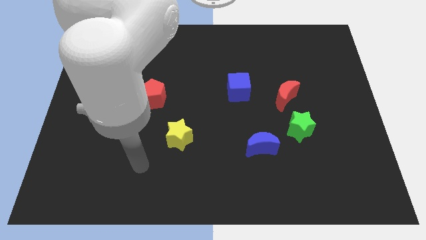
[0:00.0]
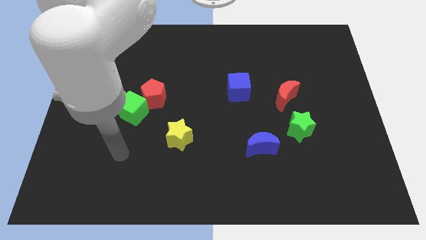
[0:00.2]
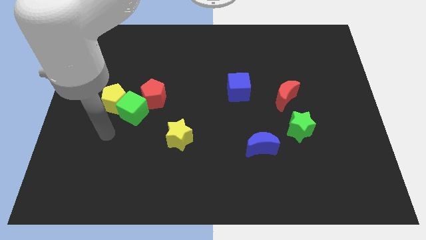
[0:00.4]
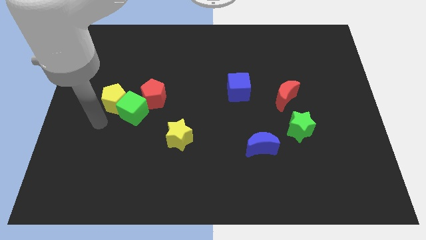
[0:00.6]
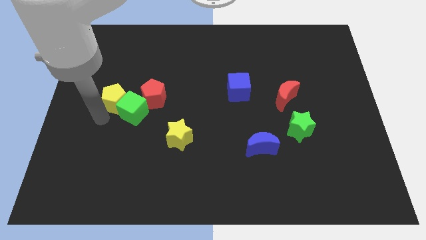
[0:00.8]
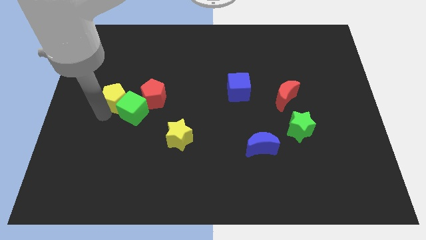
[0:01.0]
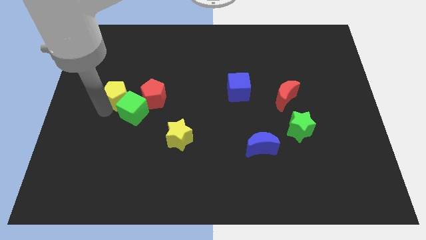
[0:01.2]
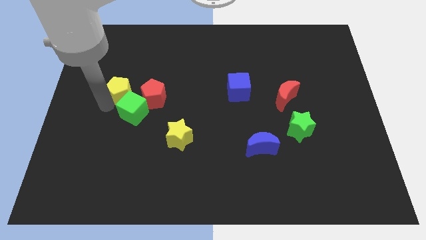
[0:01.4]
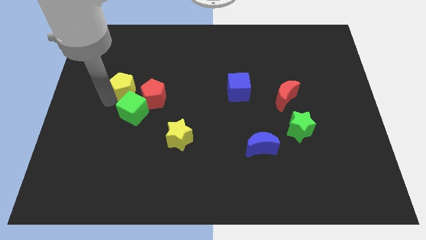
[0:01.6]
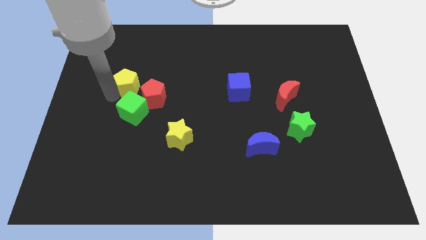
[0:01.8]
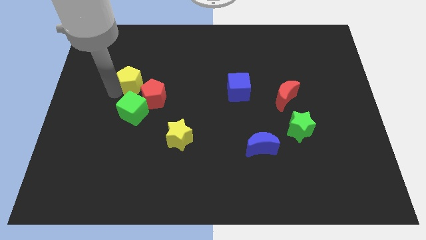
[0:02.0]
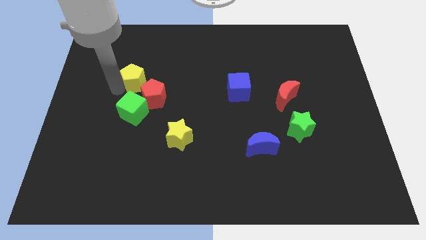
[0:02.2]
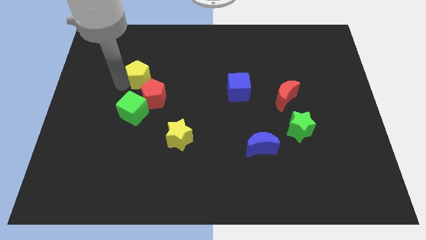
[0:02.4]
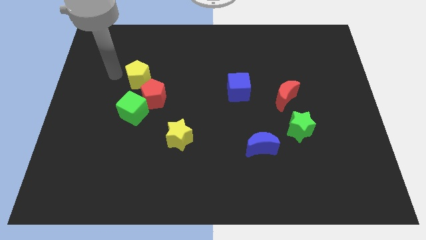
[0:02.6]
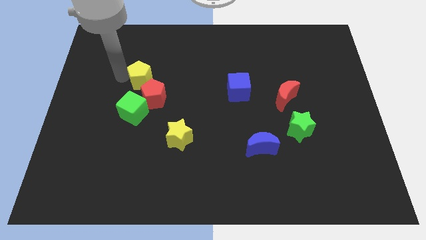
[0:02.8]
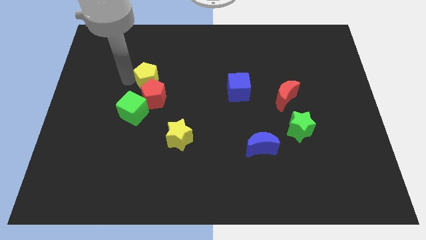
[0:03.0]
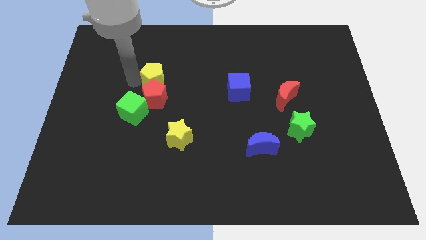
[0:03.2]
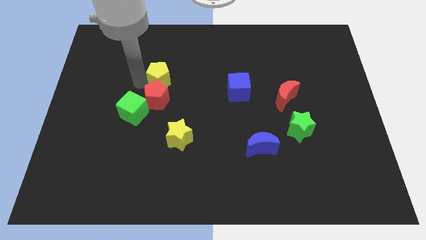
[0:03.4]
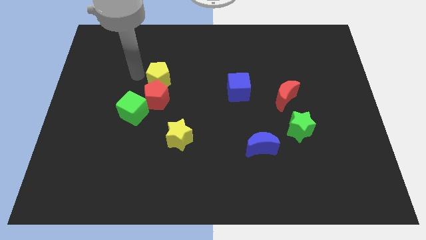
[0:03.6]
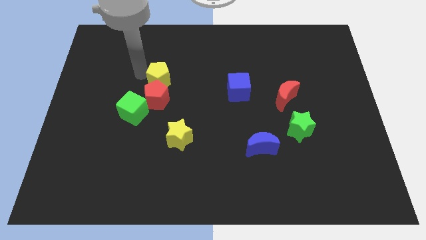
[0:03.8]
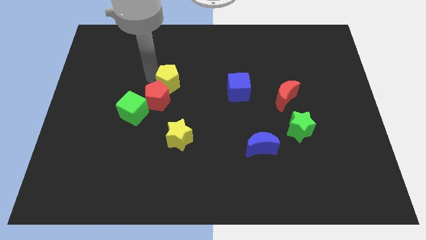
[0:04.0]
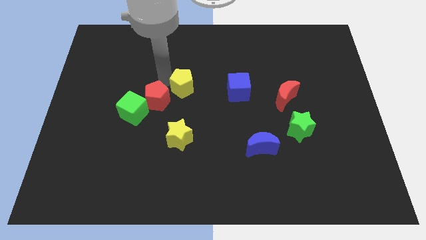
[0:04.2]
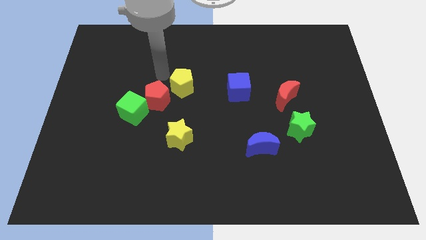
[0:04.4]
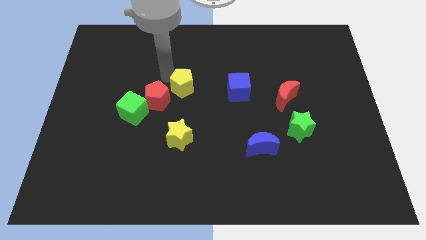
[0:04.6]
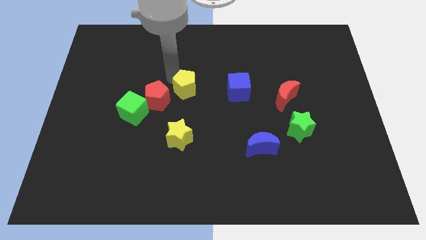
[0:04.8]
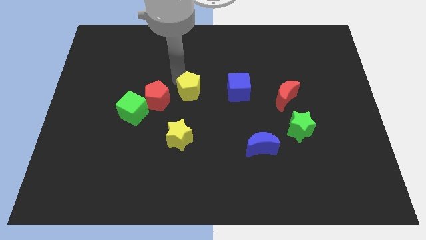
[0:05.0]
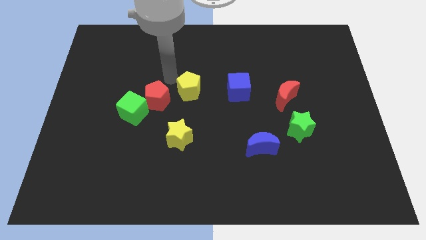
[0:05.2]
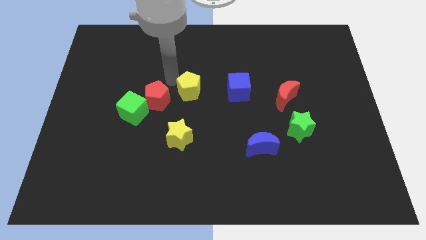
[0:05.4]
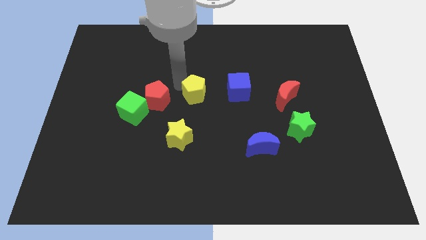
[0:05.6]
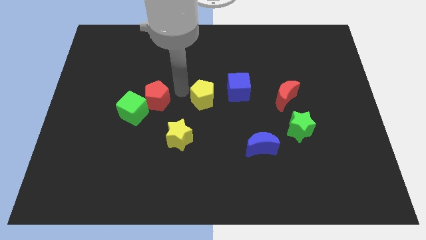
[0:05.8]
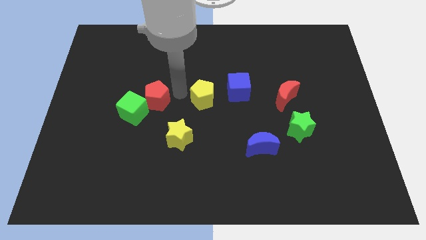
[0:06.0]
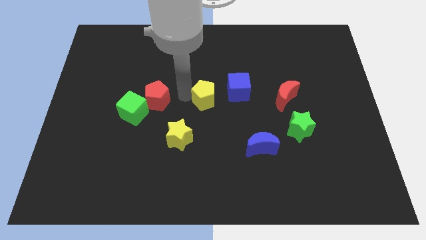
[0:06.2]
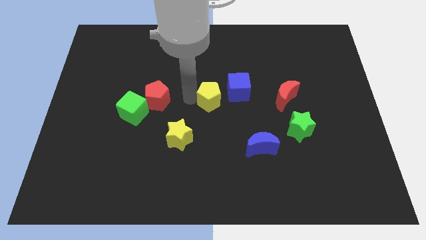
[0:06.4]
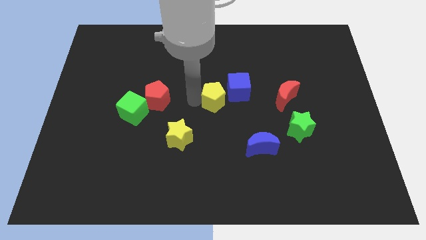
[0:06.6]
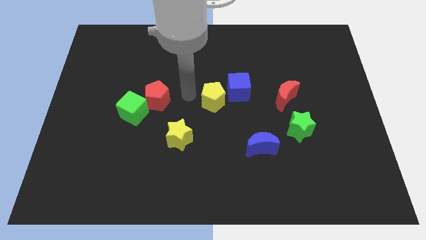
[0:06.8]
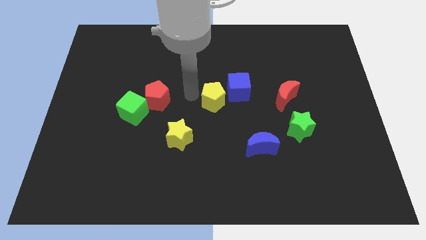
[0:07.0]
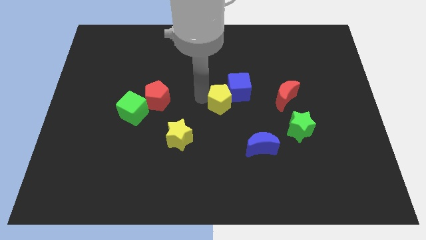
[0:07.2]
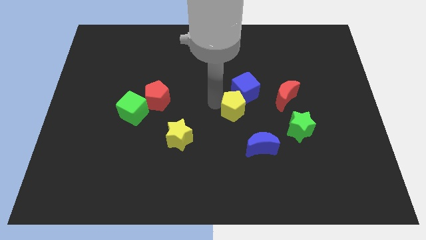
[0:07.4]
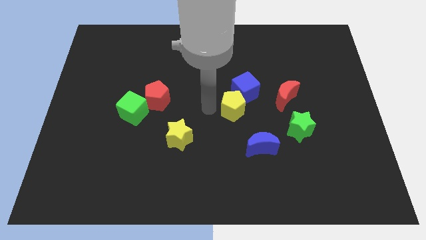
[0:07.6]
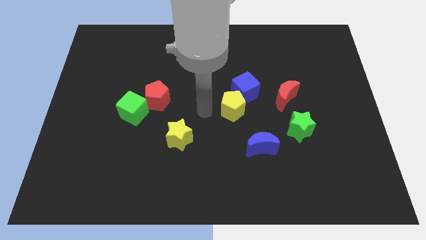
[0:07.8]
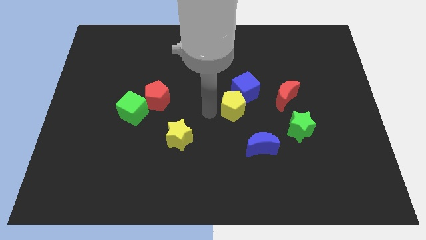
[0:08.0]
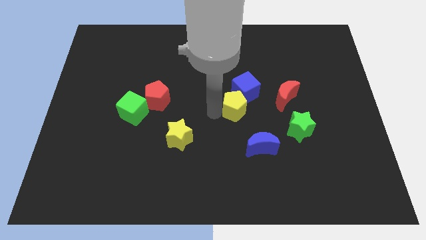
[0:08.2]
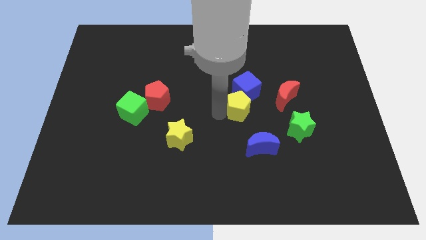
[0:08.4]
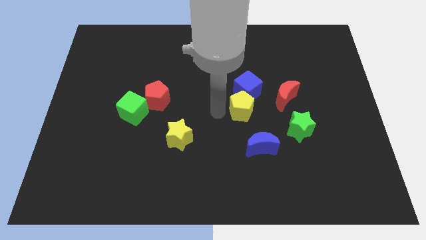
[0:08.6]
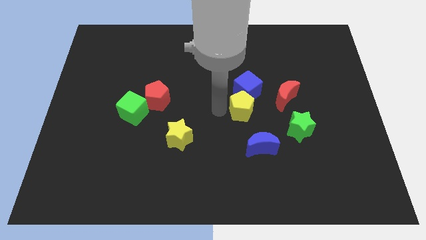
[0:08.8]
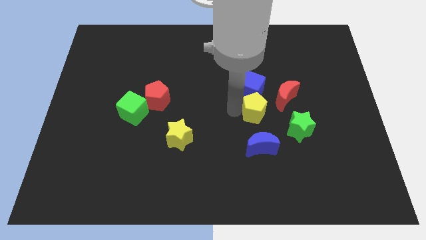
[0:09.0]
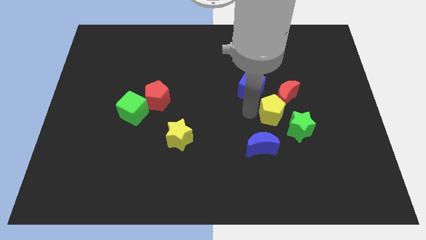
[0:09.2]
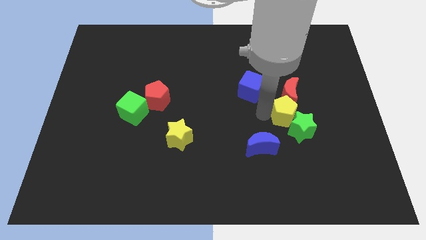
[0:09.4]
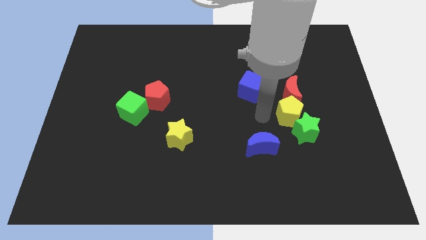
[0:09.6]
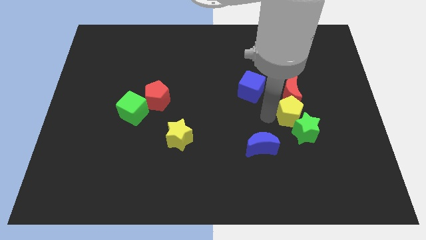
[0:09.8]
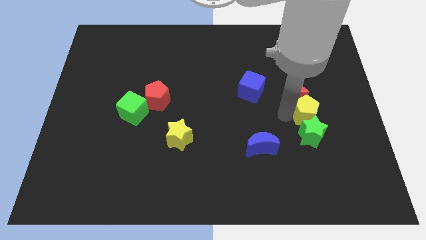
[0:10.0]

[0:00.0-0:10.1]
put the yellow pentagon diagonally up and to the right of the green star

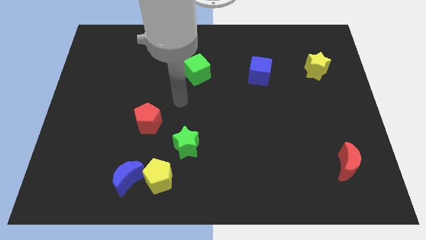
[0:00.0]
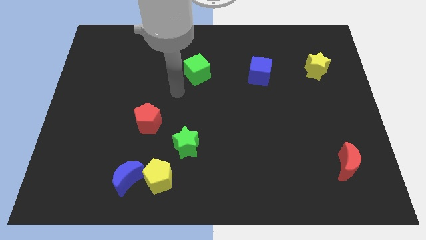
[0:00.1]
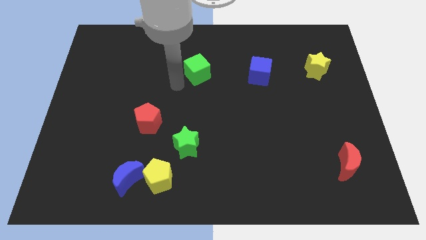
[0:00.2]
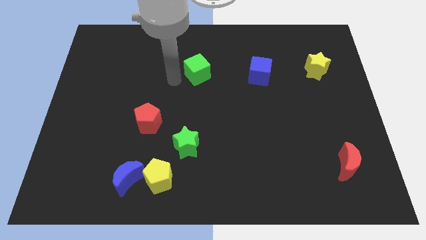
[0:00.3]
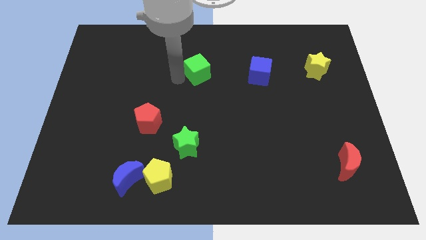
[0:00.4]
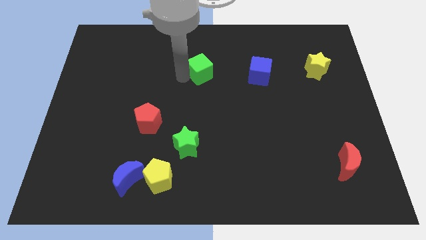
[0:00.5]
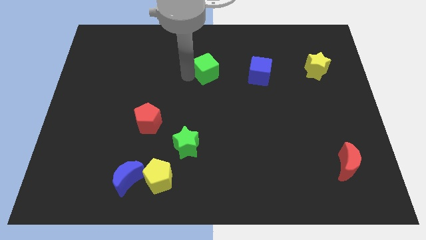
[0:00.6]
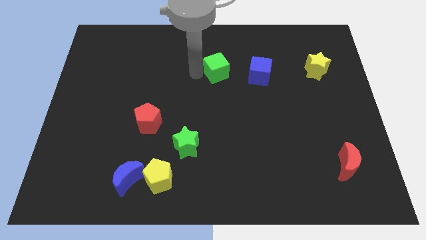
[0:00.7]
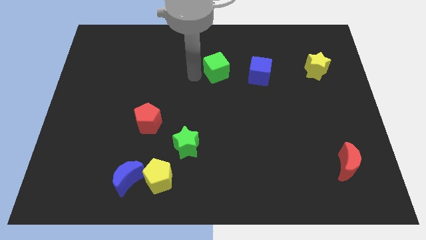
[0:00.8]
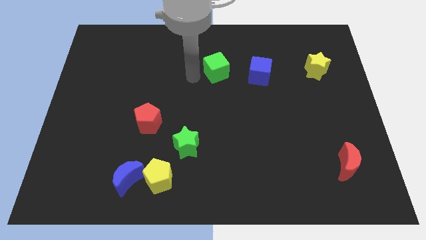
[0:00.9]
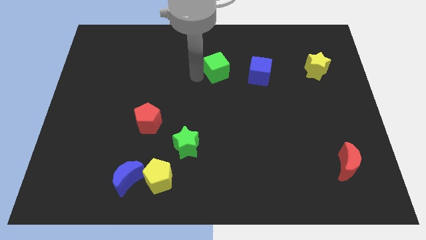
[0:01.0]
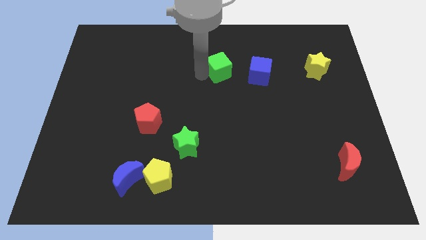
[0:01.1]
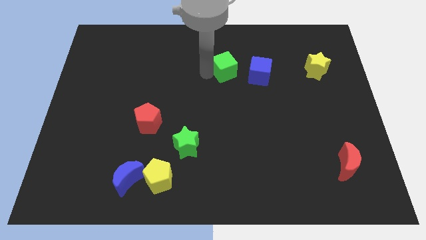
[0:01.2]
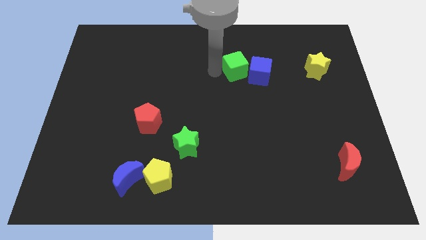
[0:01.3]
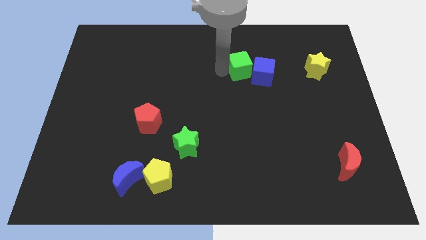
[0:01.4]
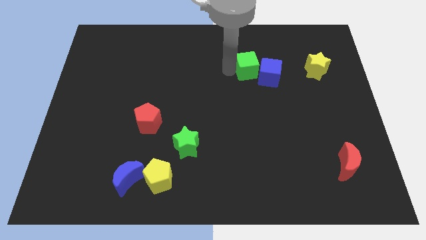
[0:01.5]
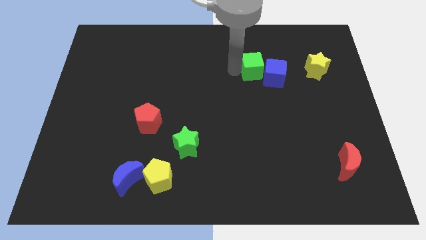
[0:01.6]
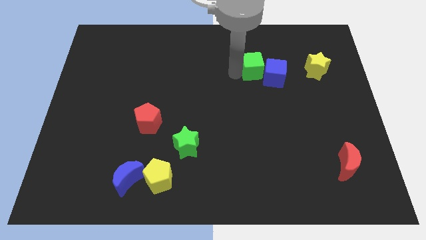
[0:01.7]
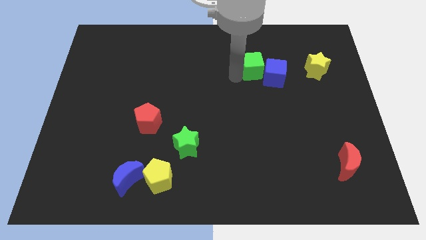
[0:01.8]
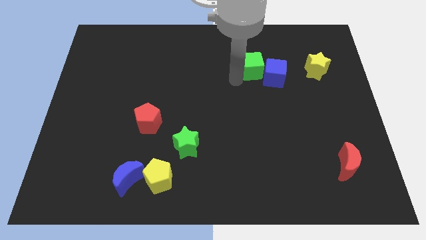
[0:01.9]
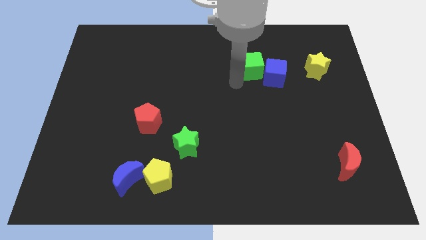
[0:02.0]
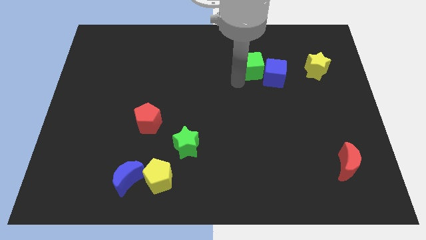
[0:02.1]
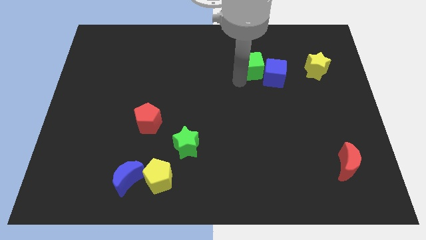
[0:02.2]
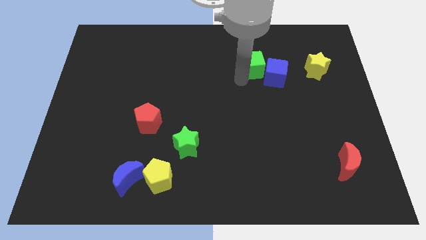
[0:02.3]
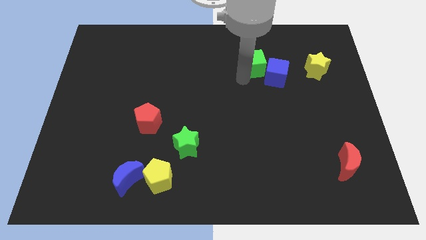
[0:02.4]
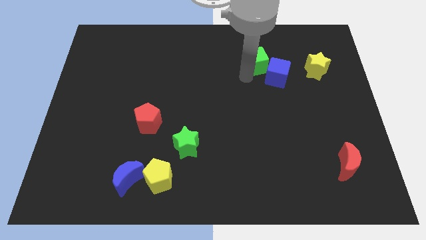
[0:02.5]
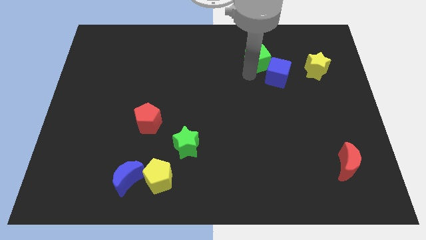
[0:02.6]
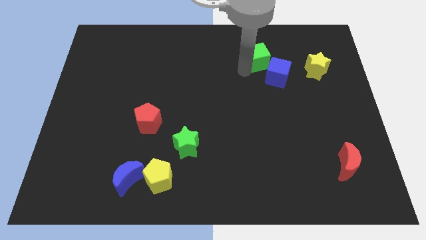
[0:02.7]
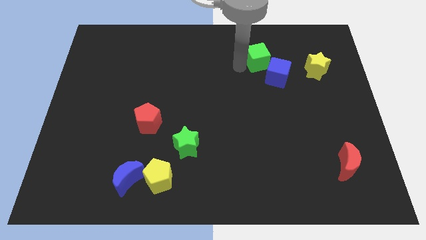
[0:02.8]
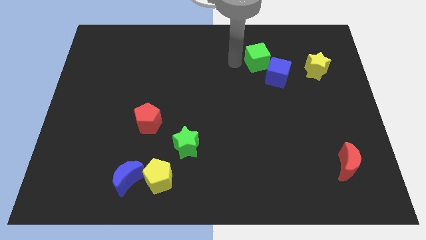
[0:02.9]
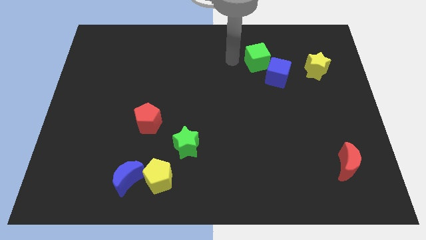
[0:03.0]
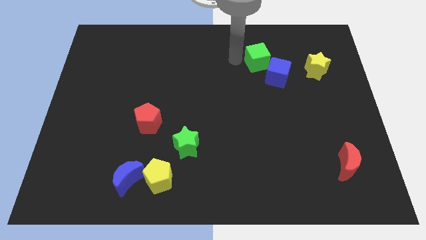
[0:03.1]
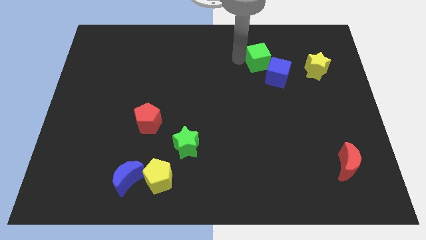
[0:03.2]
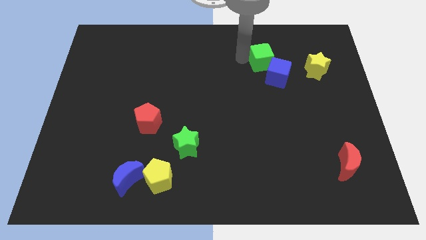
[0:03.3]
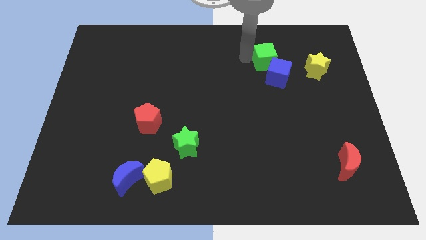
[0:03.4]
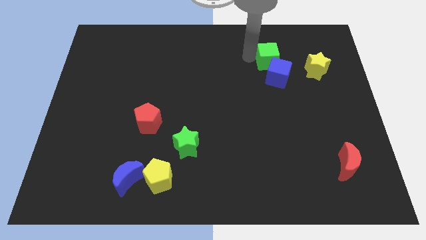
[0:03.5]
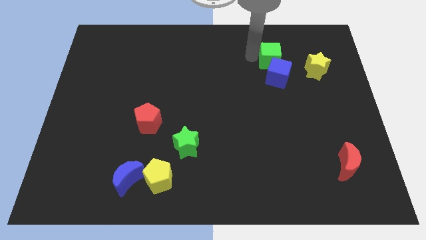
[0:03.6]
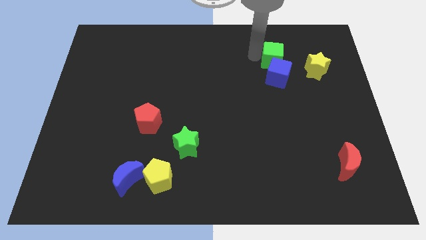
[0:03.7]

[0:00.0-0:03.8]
put the green cube diagonally up and to the right of the blue cube
